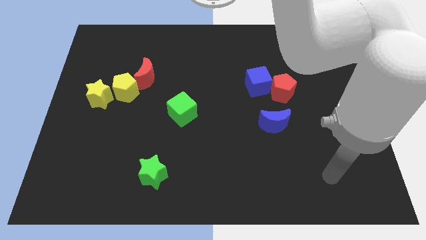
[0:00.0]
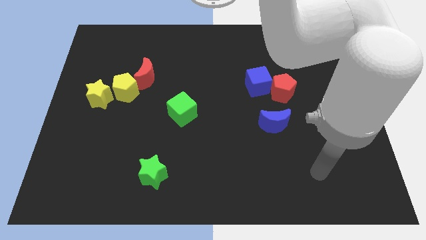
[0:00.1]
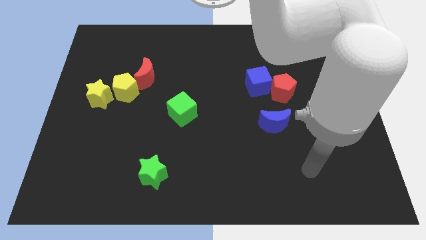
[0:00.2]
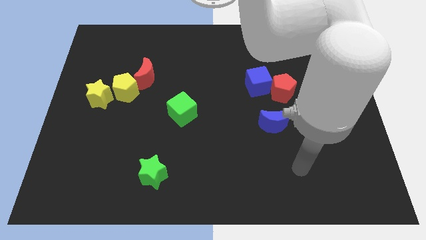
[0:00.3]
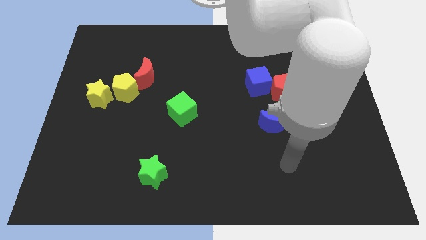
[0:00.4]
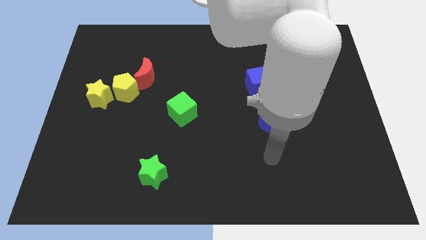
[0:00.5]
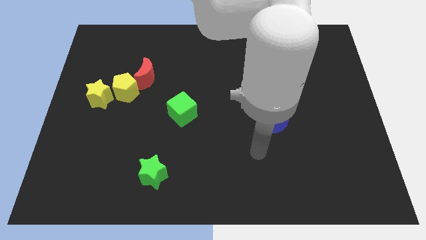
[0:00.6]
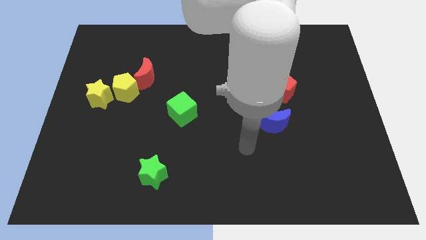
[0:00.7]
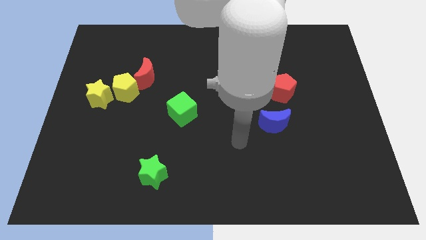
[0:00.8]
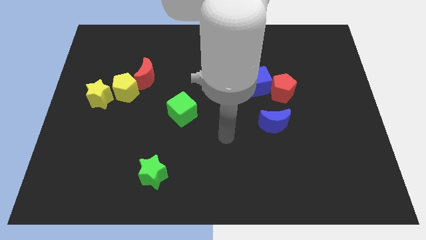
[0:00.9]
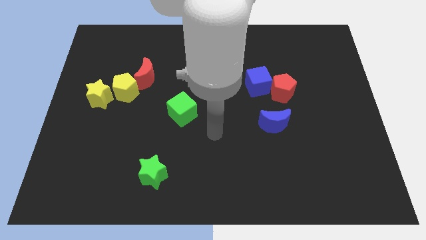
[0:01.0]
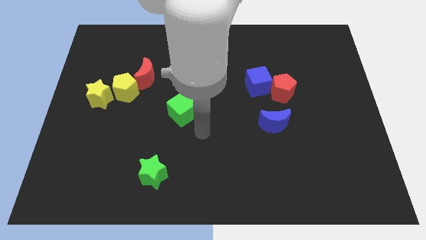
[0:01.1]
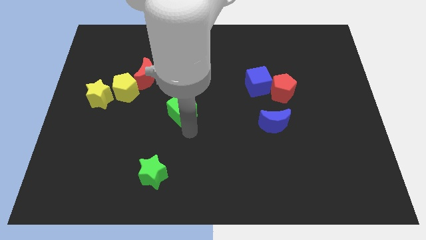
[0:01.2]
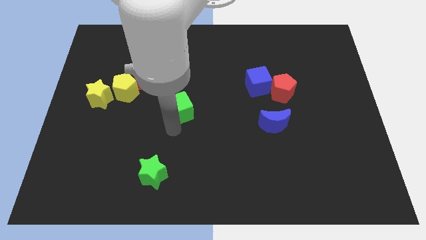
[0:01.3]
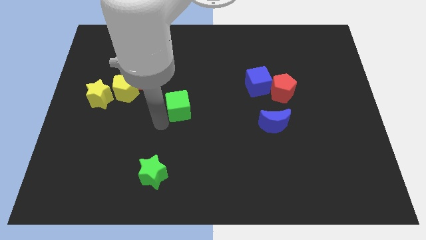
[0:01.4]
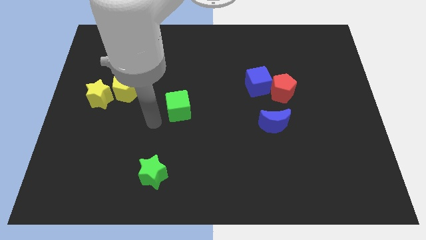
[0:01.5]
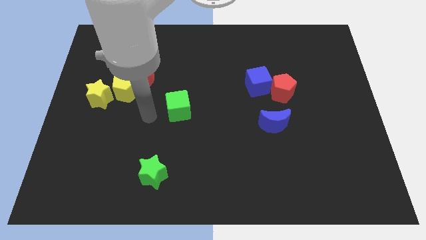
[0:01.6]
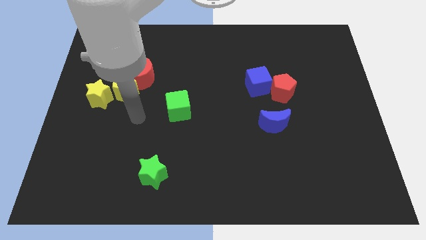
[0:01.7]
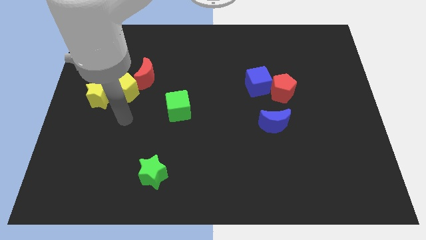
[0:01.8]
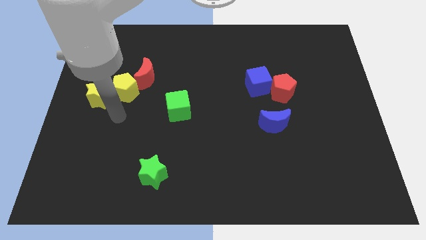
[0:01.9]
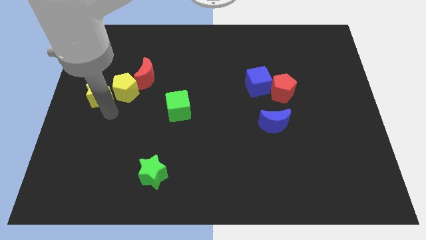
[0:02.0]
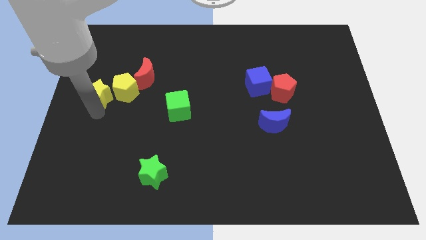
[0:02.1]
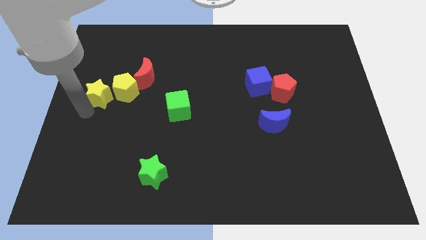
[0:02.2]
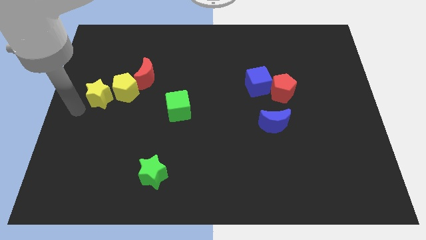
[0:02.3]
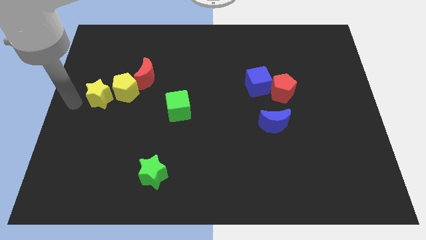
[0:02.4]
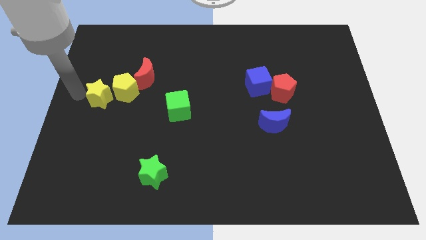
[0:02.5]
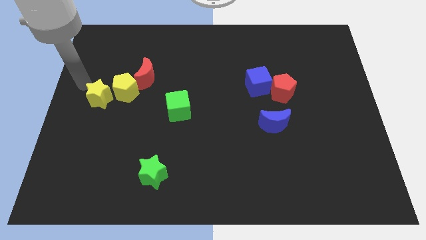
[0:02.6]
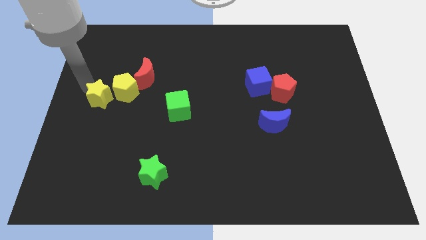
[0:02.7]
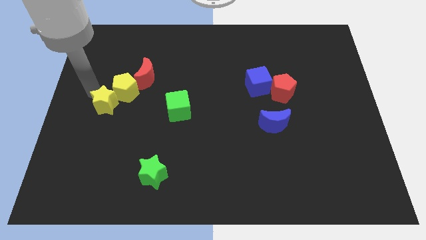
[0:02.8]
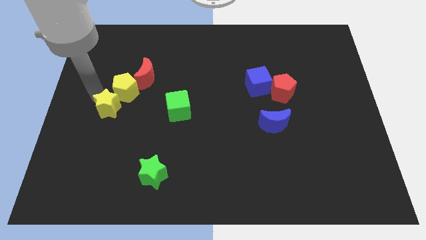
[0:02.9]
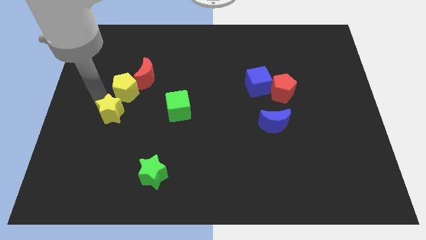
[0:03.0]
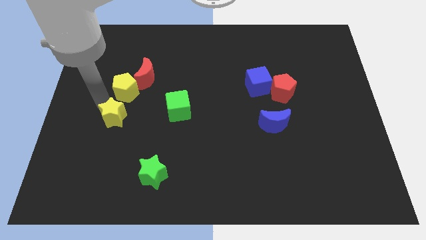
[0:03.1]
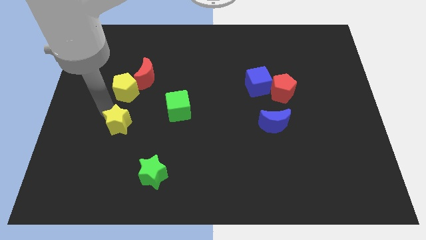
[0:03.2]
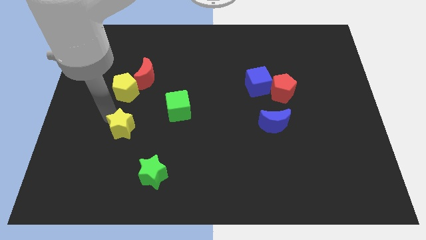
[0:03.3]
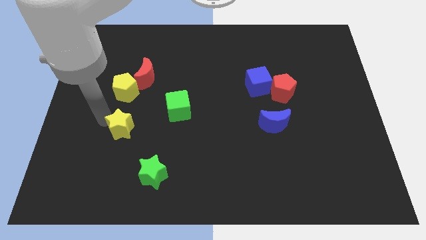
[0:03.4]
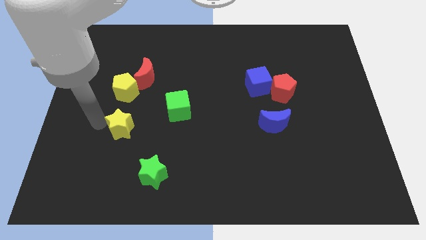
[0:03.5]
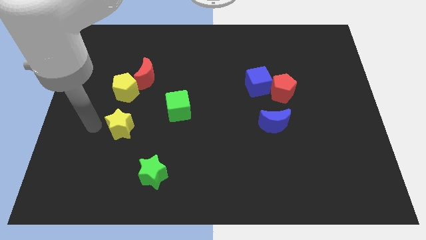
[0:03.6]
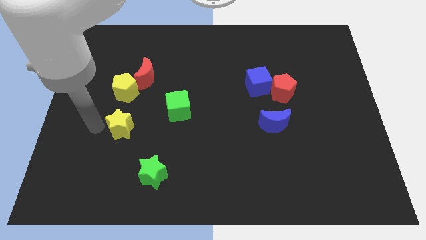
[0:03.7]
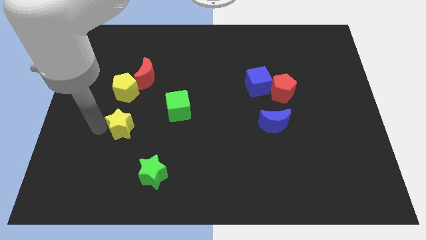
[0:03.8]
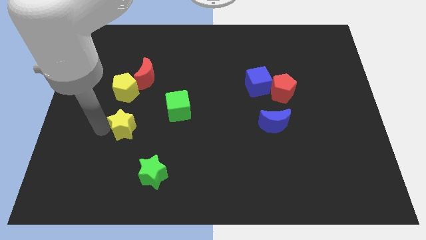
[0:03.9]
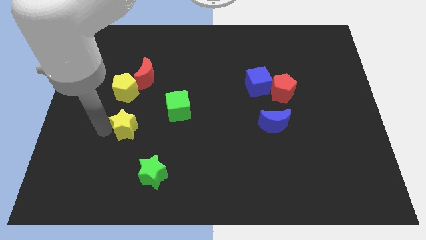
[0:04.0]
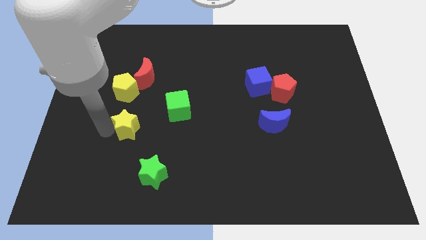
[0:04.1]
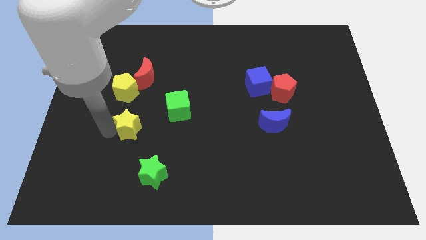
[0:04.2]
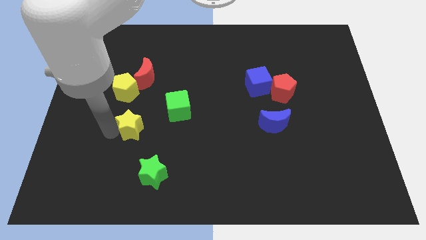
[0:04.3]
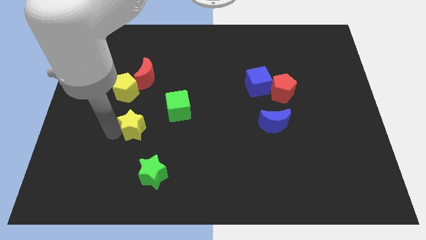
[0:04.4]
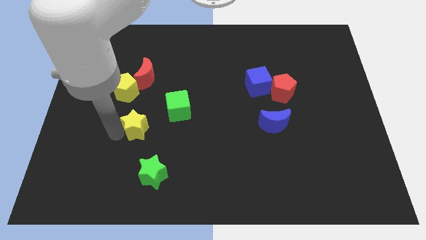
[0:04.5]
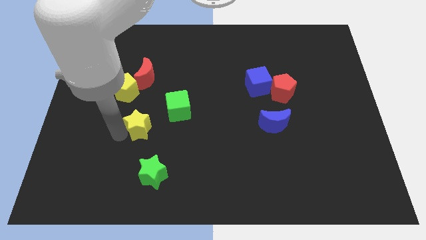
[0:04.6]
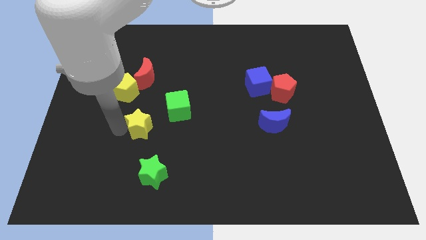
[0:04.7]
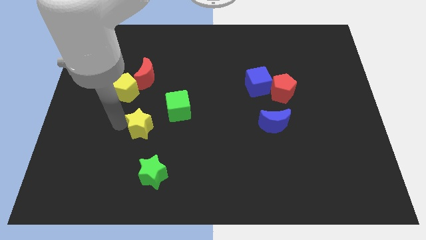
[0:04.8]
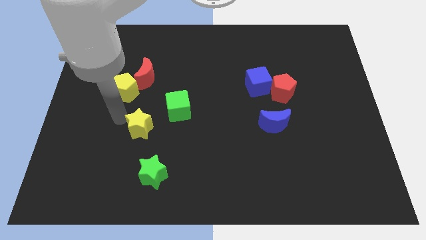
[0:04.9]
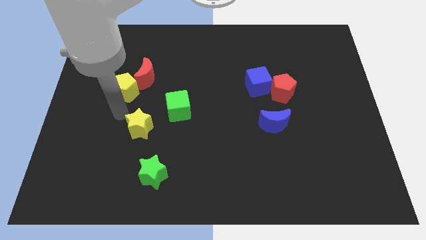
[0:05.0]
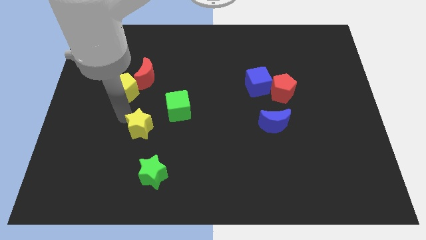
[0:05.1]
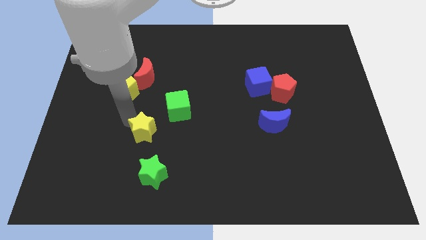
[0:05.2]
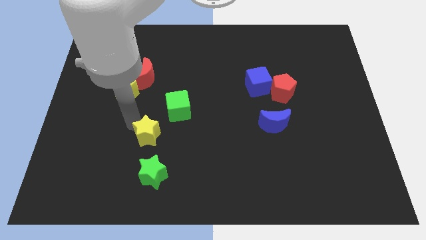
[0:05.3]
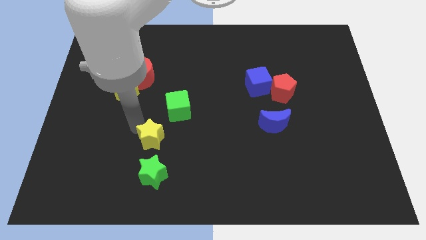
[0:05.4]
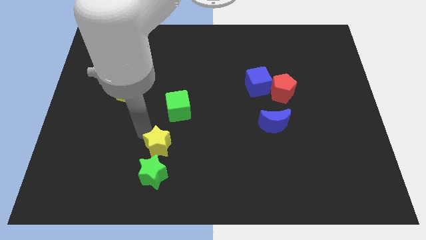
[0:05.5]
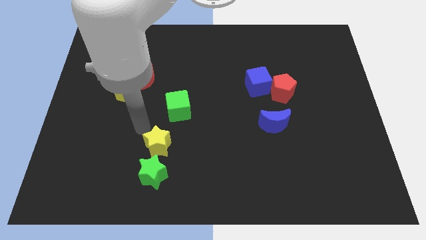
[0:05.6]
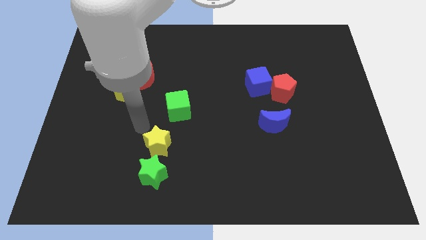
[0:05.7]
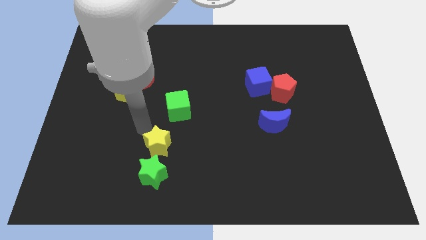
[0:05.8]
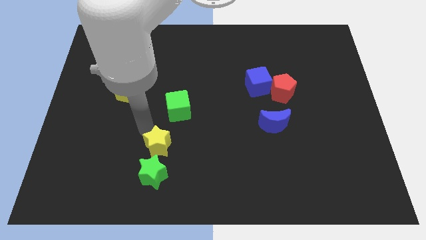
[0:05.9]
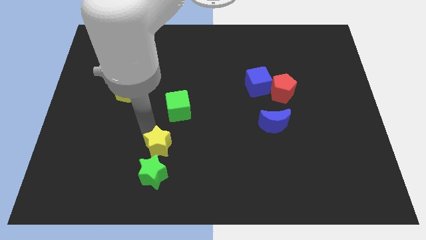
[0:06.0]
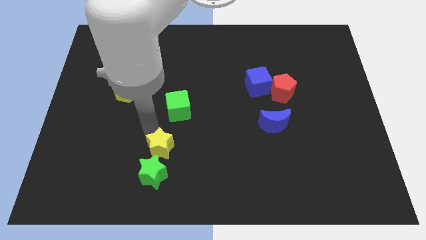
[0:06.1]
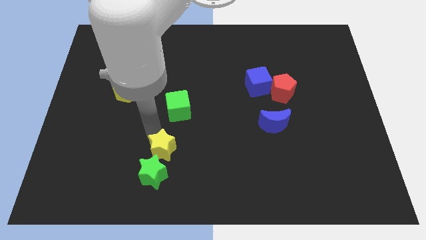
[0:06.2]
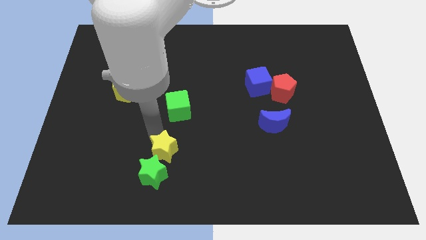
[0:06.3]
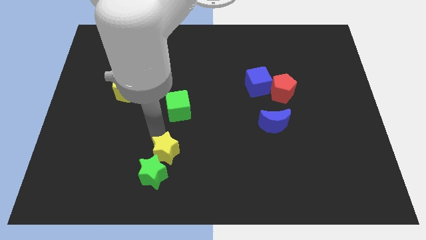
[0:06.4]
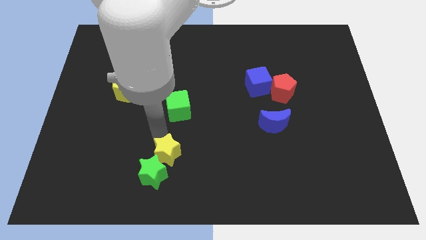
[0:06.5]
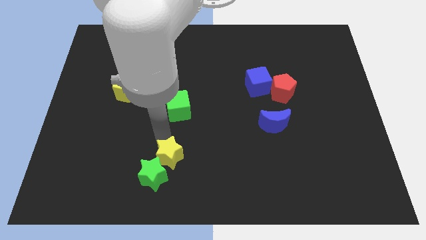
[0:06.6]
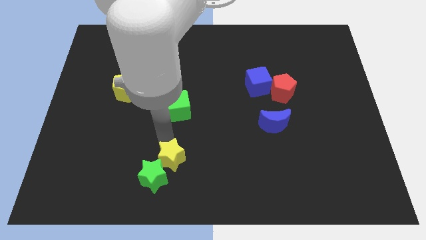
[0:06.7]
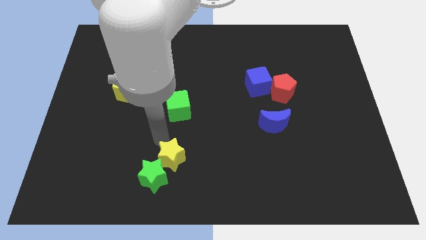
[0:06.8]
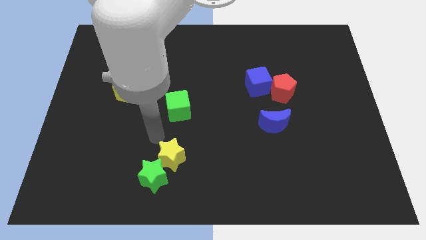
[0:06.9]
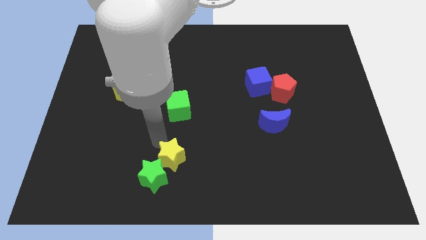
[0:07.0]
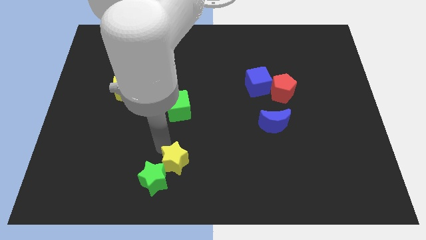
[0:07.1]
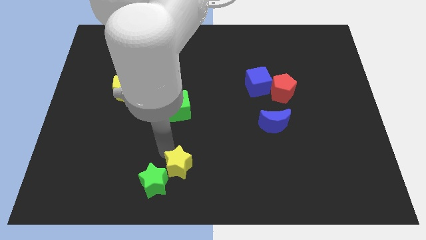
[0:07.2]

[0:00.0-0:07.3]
put the yellow star to the bottom
